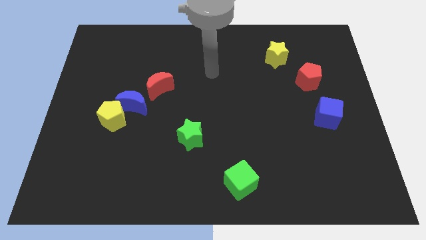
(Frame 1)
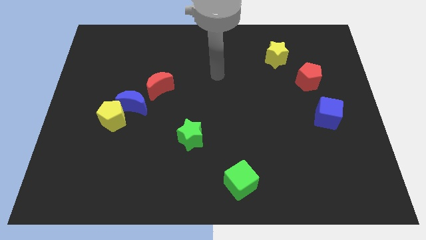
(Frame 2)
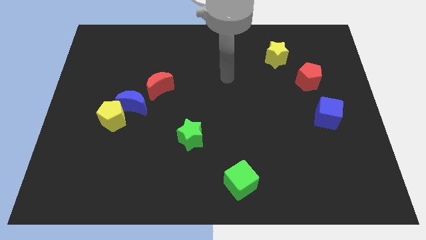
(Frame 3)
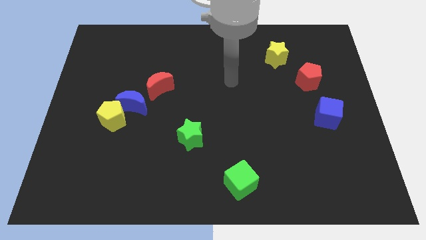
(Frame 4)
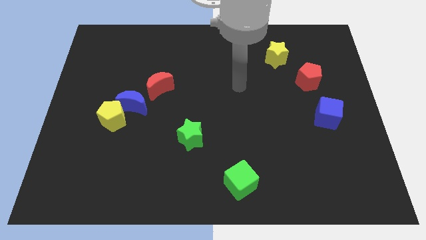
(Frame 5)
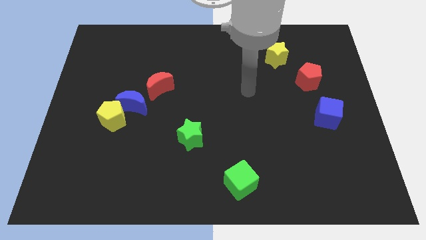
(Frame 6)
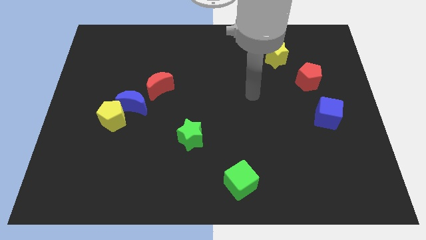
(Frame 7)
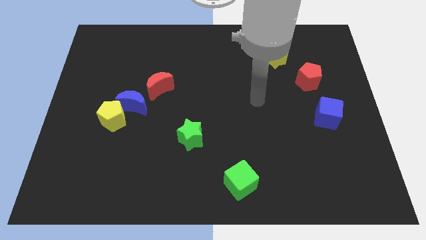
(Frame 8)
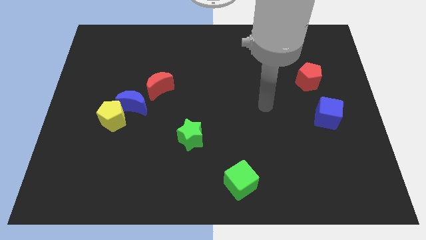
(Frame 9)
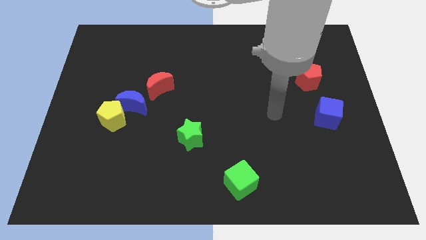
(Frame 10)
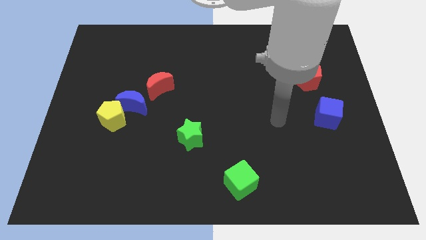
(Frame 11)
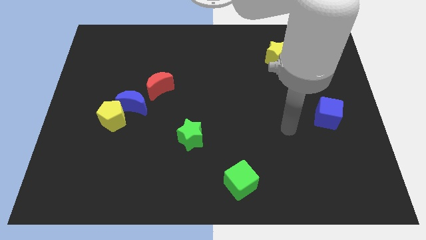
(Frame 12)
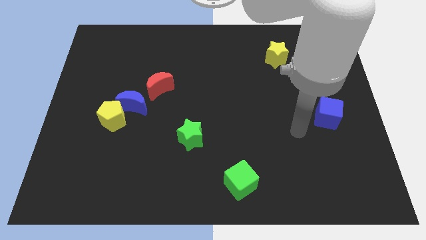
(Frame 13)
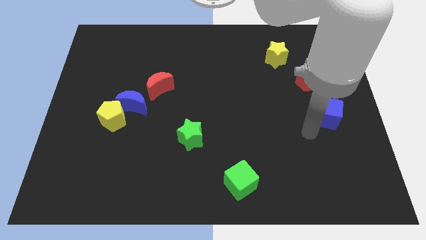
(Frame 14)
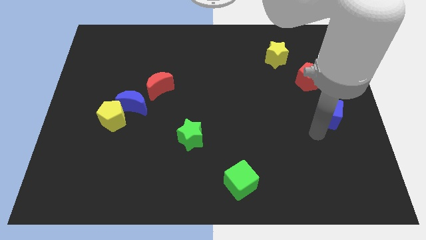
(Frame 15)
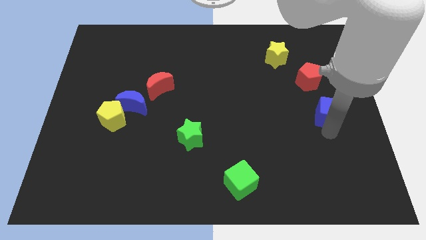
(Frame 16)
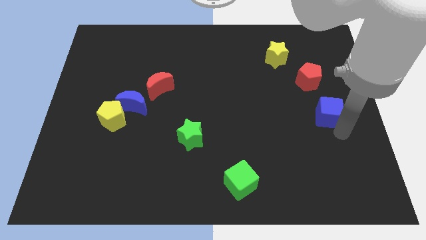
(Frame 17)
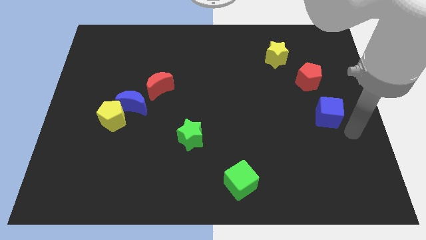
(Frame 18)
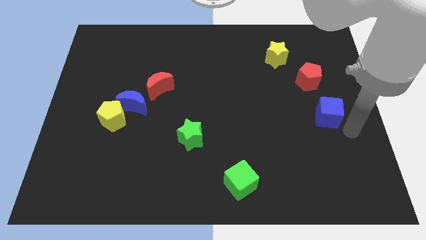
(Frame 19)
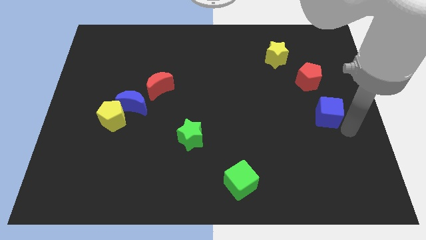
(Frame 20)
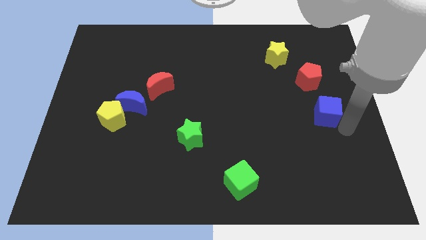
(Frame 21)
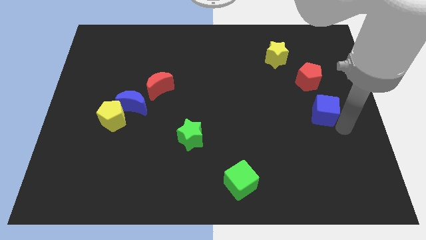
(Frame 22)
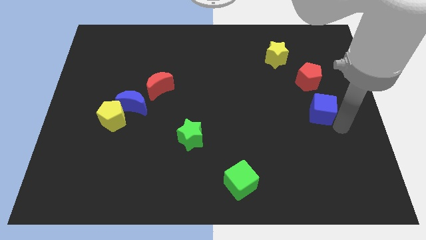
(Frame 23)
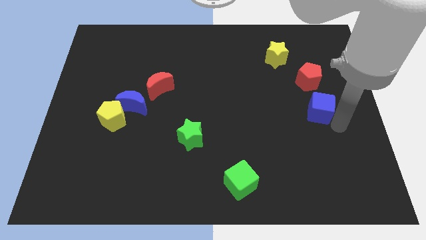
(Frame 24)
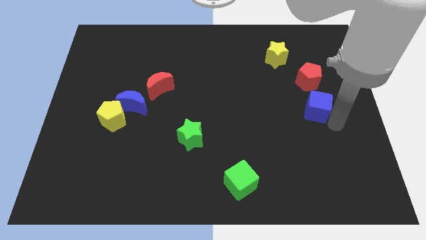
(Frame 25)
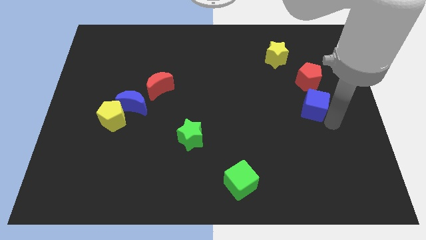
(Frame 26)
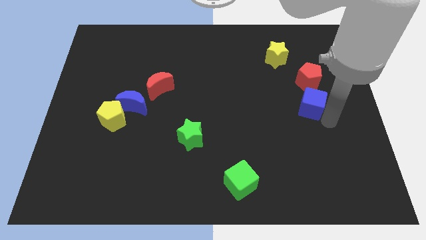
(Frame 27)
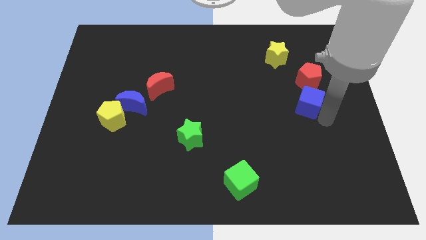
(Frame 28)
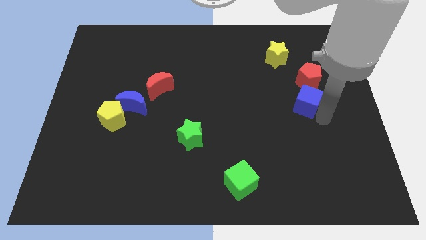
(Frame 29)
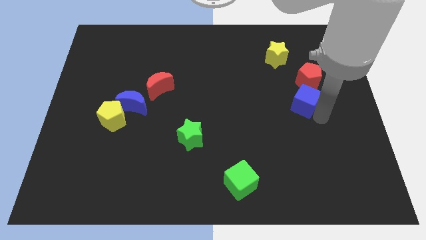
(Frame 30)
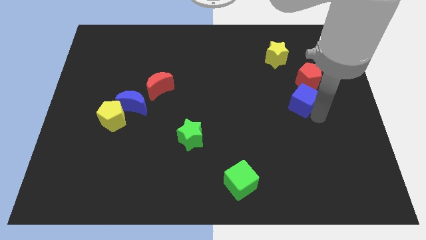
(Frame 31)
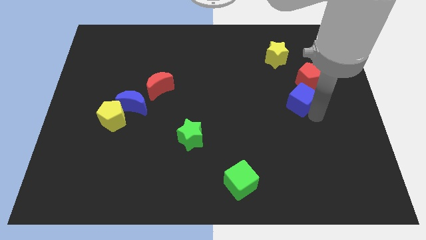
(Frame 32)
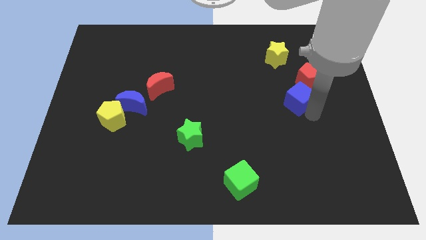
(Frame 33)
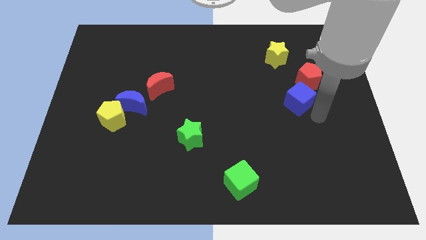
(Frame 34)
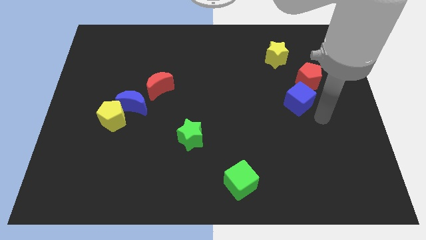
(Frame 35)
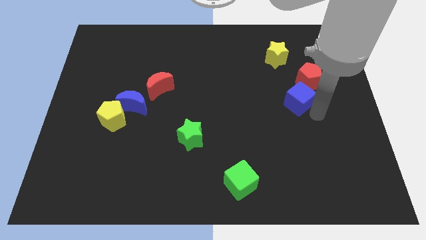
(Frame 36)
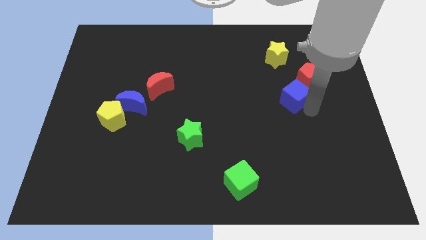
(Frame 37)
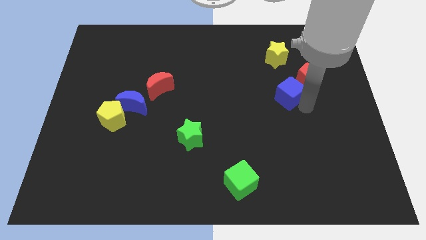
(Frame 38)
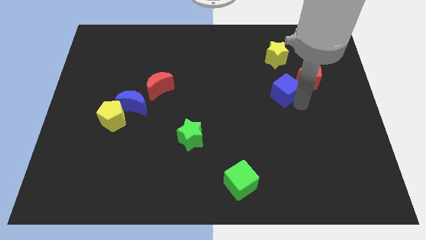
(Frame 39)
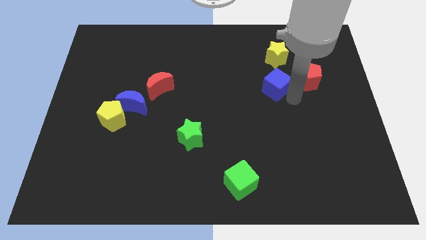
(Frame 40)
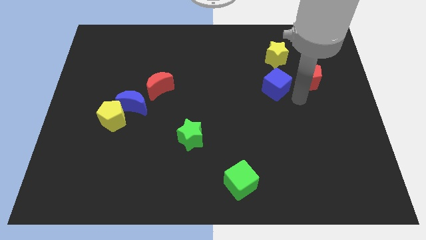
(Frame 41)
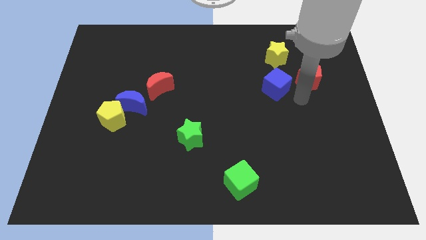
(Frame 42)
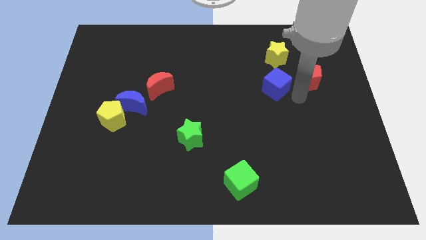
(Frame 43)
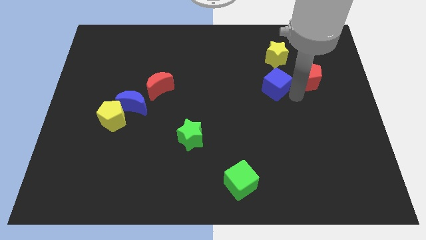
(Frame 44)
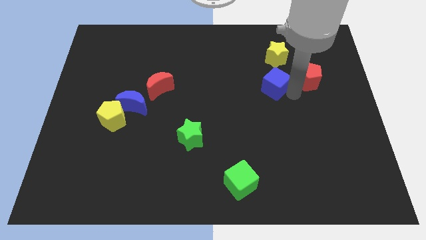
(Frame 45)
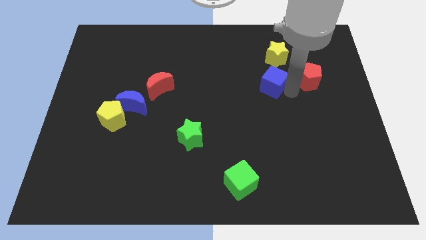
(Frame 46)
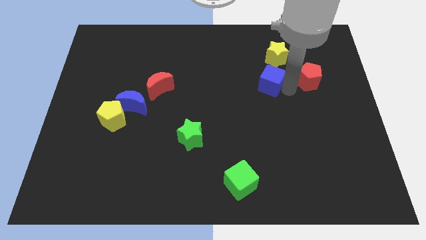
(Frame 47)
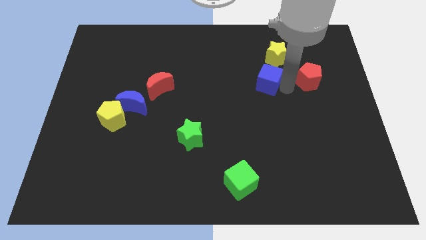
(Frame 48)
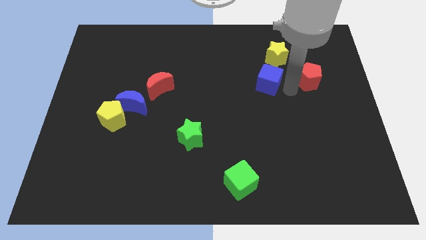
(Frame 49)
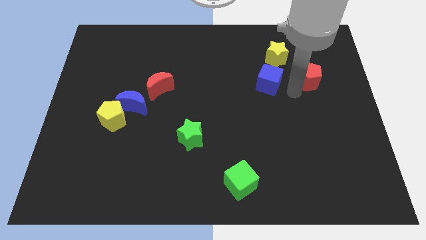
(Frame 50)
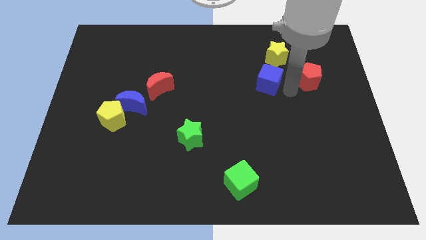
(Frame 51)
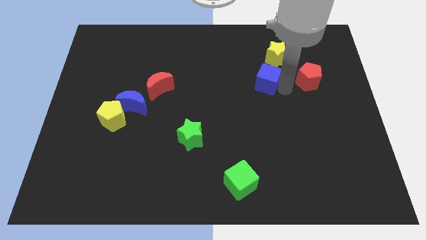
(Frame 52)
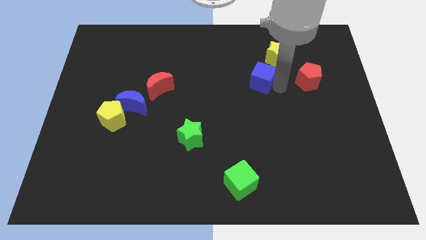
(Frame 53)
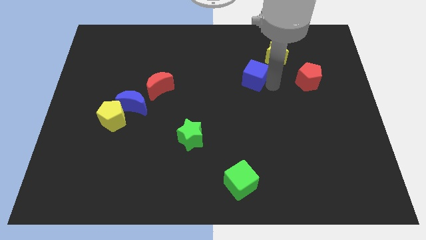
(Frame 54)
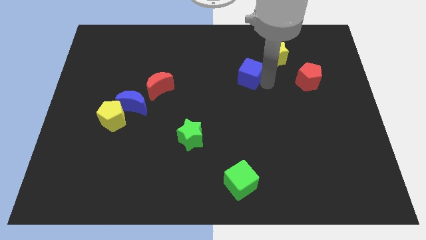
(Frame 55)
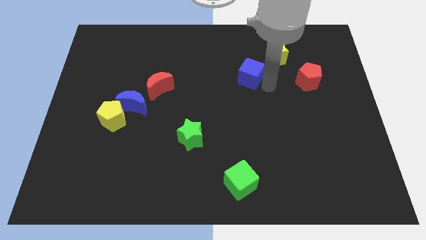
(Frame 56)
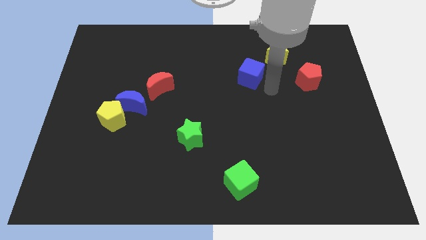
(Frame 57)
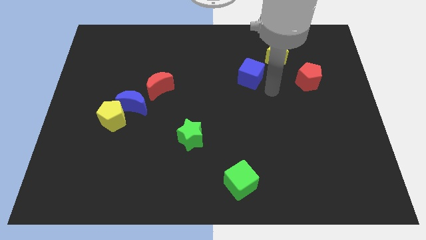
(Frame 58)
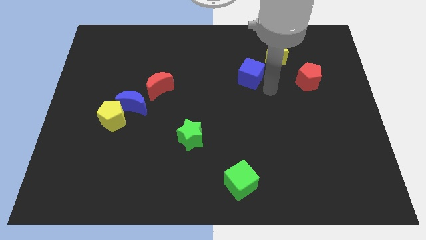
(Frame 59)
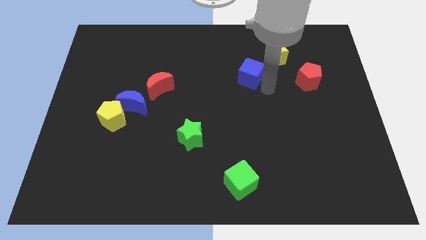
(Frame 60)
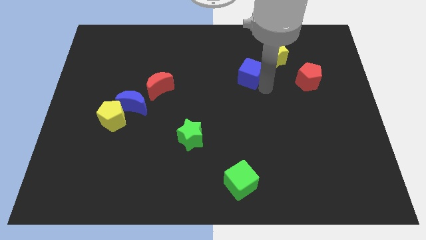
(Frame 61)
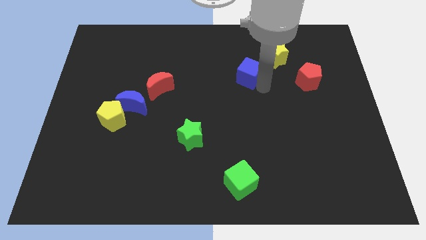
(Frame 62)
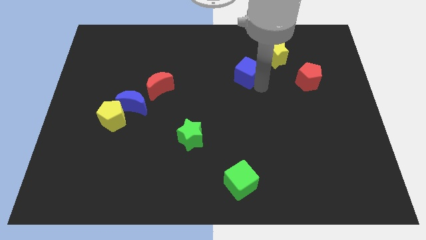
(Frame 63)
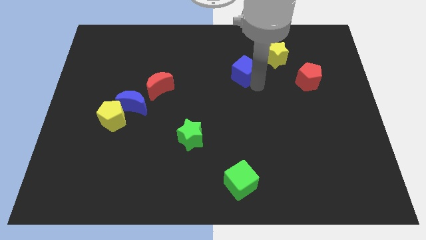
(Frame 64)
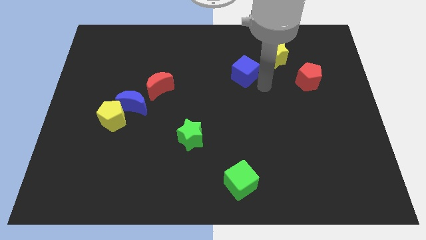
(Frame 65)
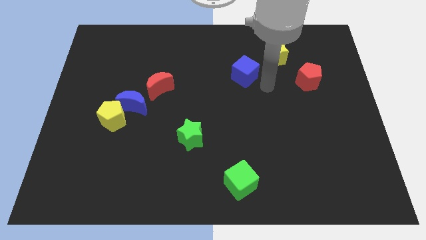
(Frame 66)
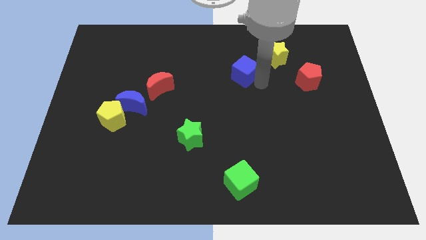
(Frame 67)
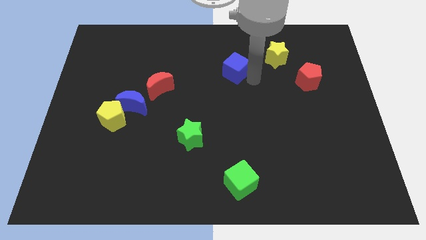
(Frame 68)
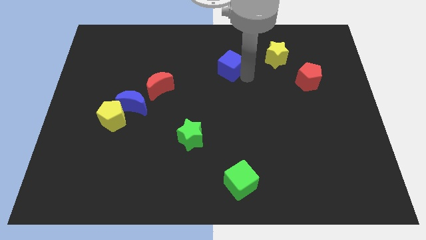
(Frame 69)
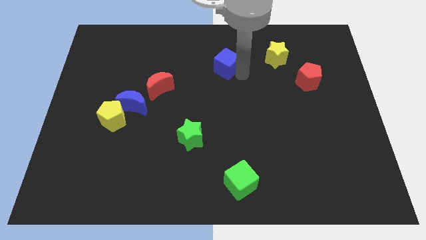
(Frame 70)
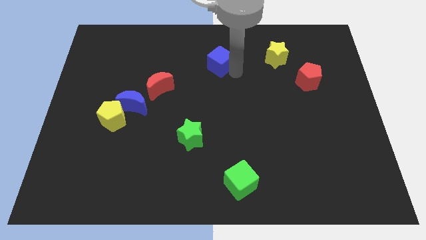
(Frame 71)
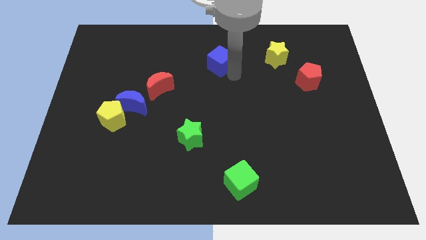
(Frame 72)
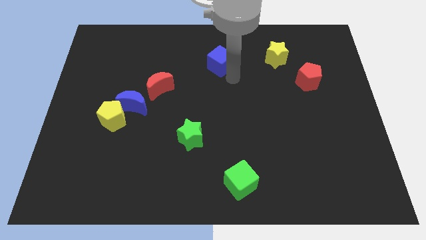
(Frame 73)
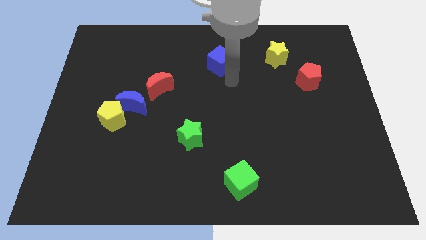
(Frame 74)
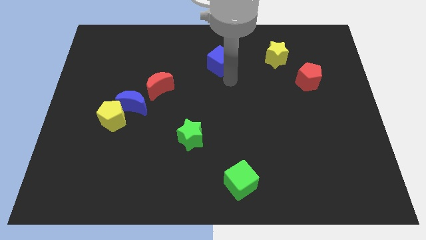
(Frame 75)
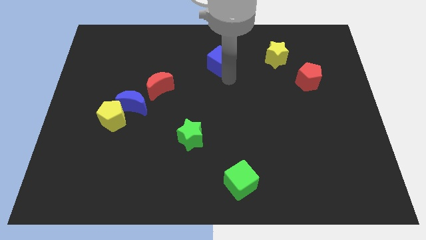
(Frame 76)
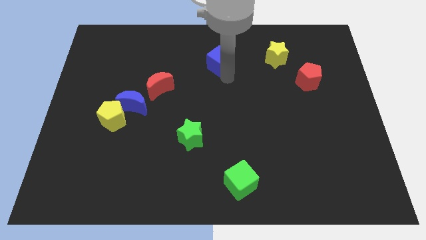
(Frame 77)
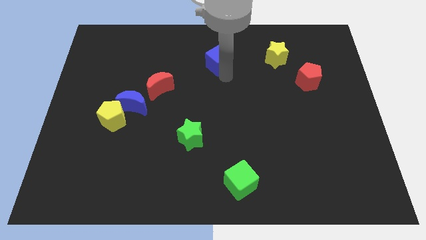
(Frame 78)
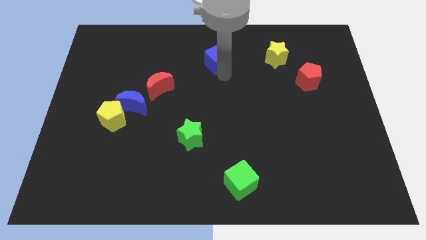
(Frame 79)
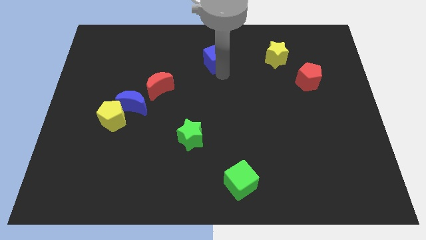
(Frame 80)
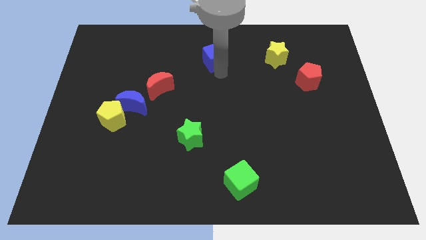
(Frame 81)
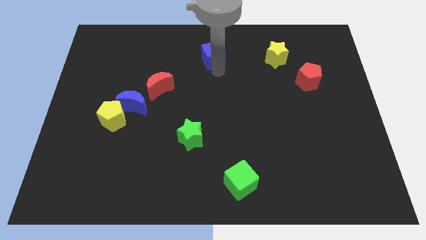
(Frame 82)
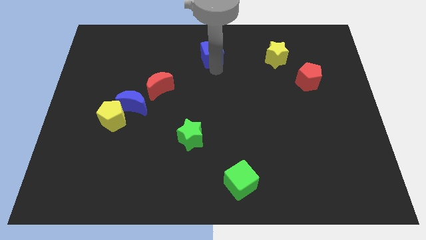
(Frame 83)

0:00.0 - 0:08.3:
move the blue cube to the top

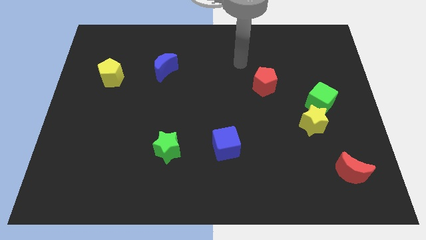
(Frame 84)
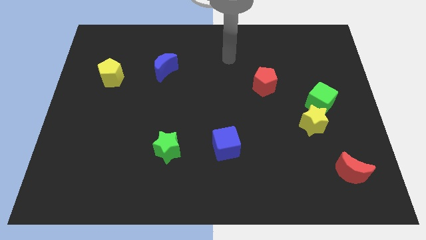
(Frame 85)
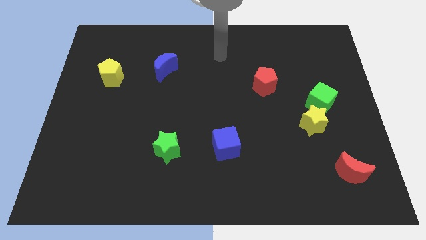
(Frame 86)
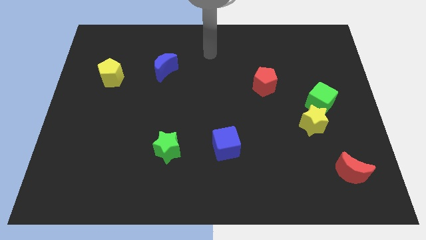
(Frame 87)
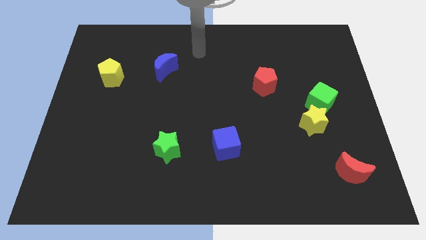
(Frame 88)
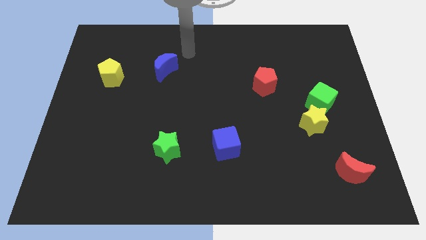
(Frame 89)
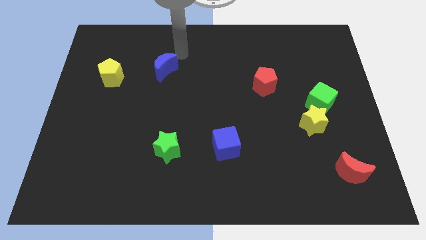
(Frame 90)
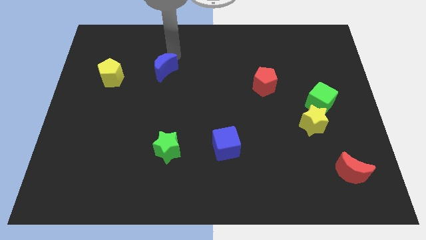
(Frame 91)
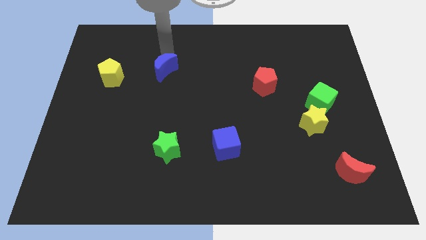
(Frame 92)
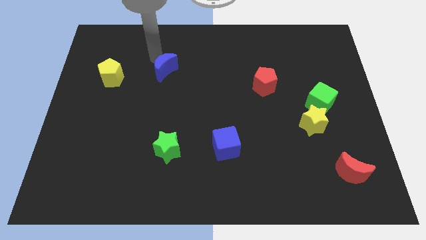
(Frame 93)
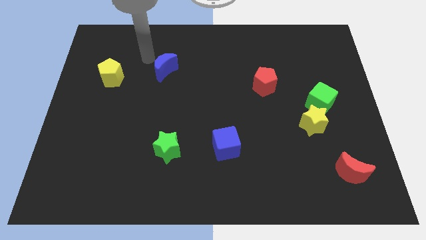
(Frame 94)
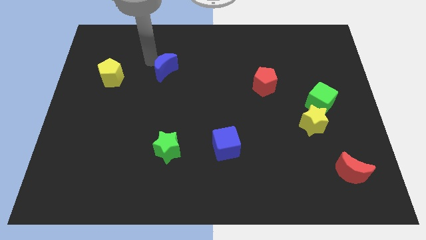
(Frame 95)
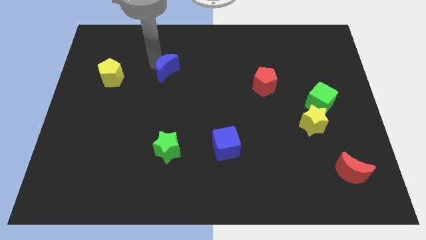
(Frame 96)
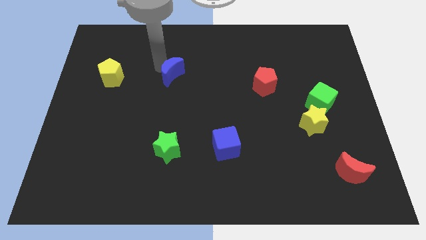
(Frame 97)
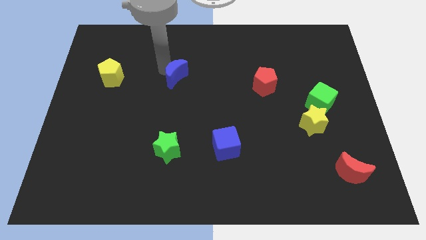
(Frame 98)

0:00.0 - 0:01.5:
push the blue moon to the middle of the board
